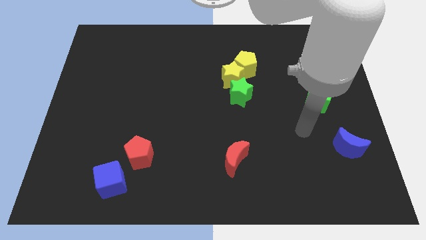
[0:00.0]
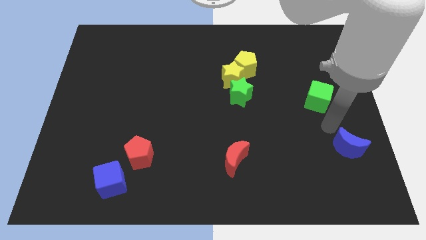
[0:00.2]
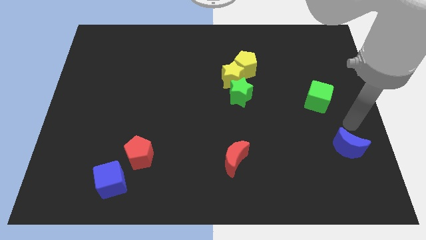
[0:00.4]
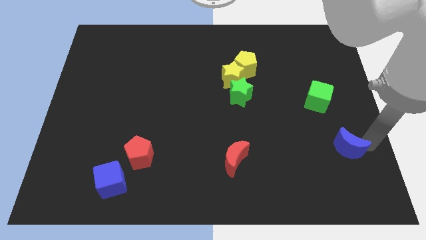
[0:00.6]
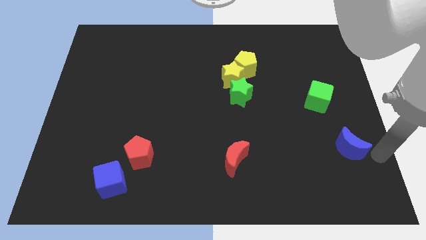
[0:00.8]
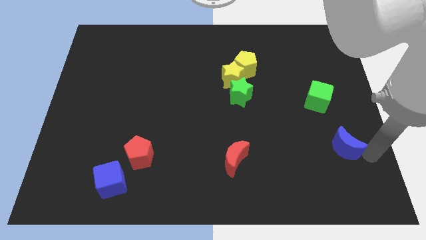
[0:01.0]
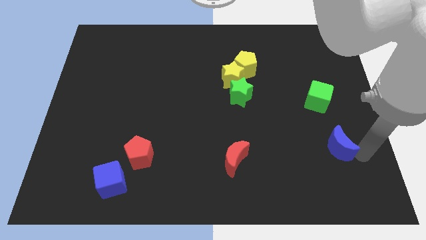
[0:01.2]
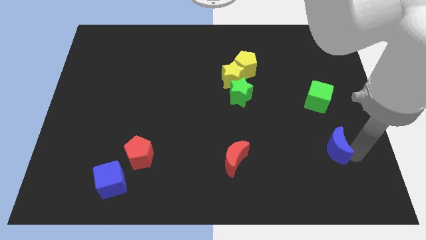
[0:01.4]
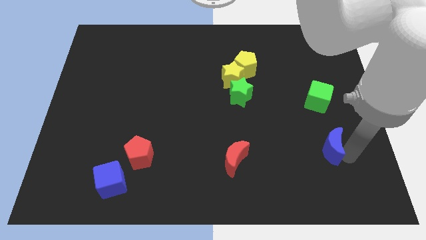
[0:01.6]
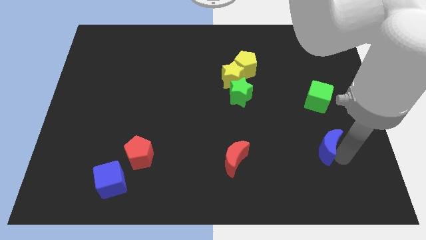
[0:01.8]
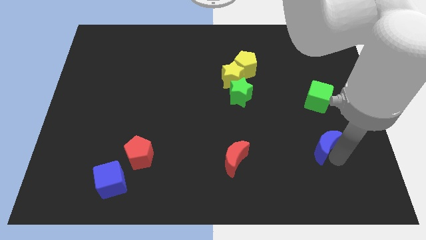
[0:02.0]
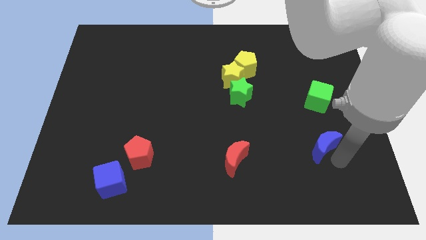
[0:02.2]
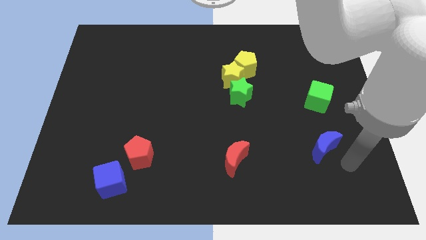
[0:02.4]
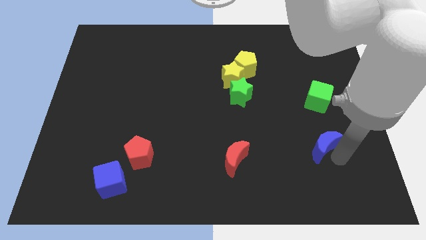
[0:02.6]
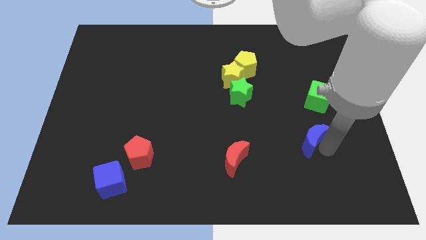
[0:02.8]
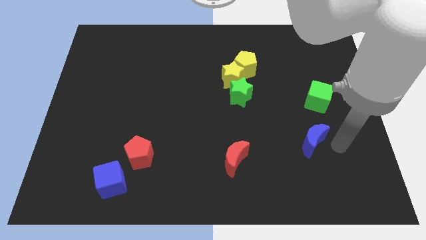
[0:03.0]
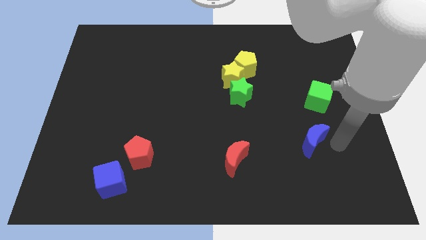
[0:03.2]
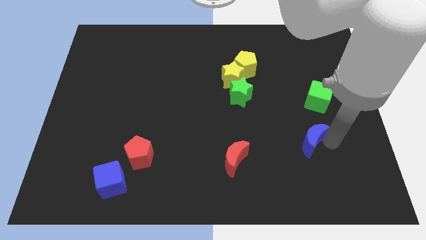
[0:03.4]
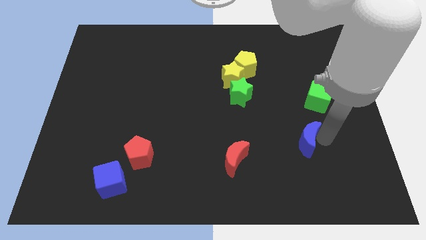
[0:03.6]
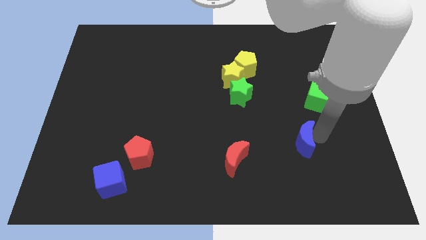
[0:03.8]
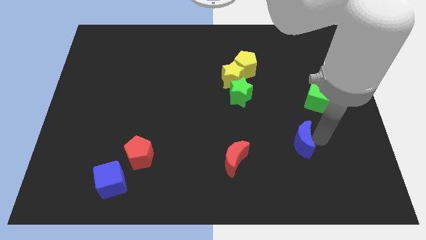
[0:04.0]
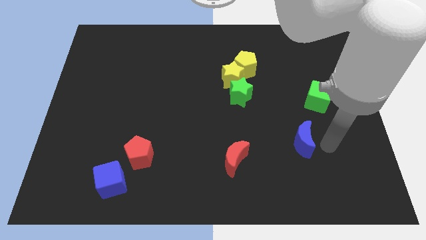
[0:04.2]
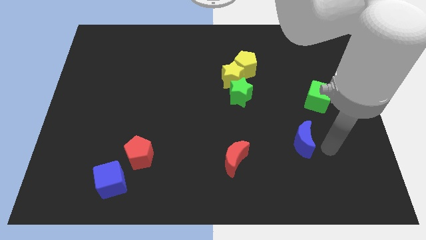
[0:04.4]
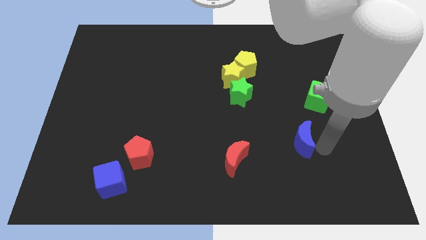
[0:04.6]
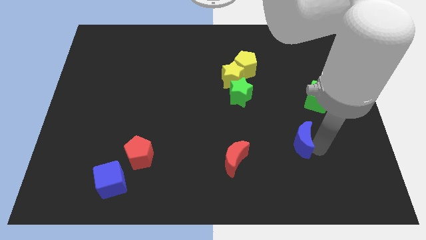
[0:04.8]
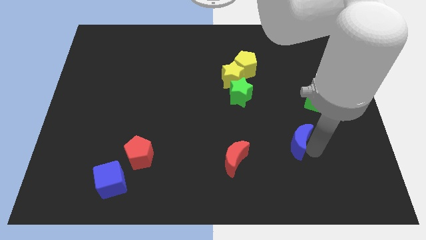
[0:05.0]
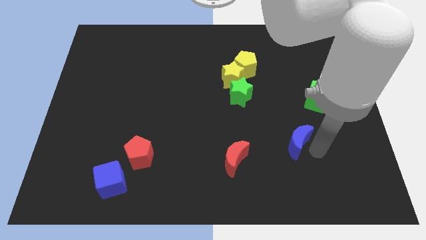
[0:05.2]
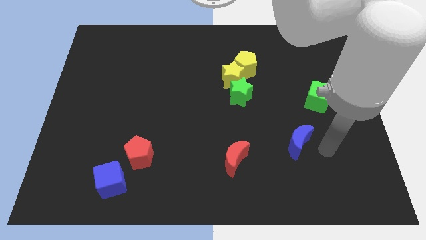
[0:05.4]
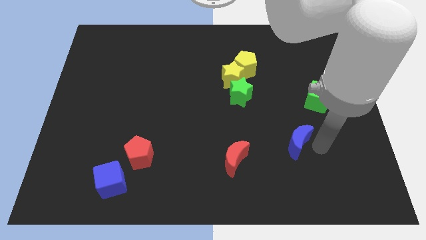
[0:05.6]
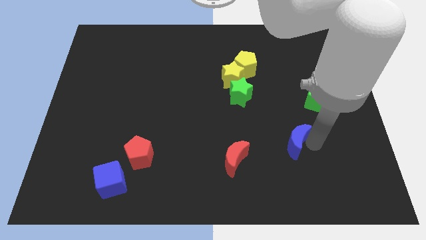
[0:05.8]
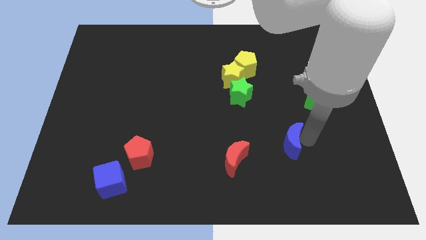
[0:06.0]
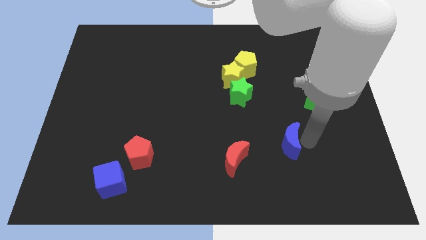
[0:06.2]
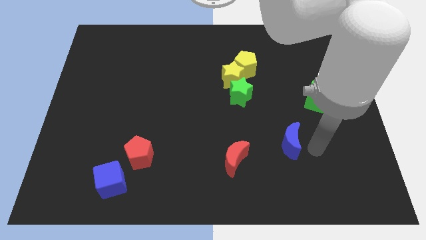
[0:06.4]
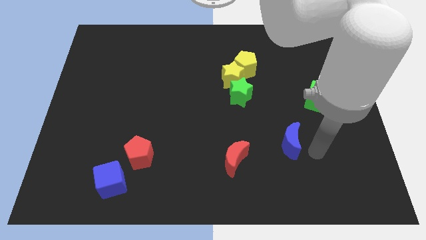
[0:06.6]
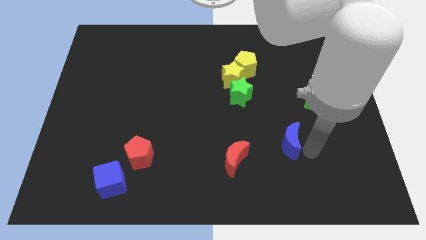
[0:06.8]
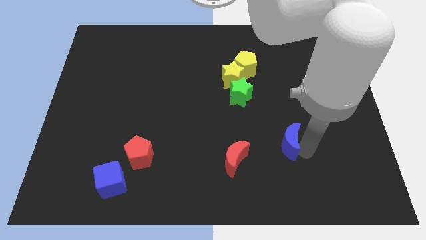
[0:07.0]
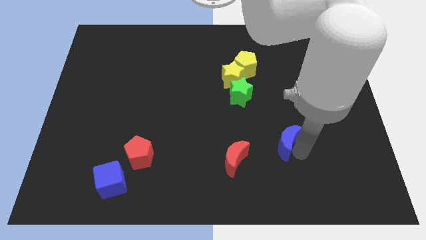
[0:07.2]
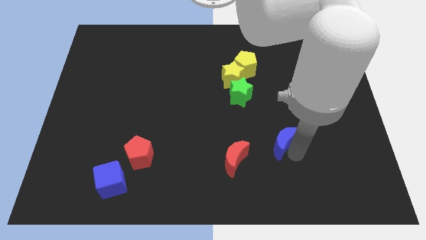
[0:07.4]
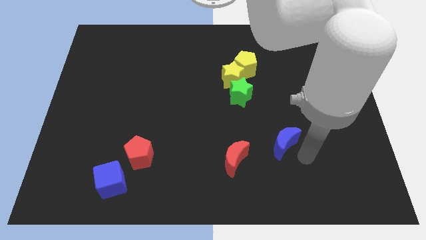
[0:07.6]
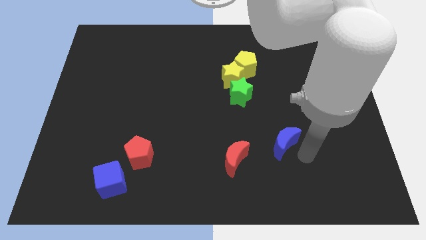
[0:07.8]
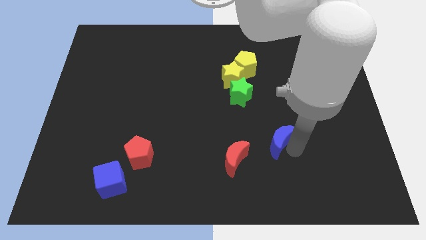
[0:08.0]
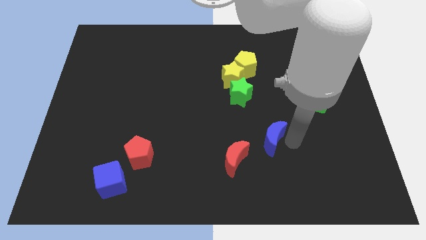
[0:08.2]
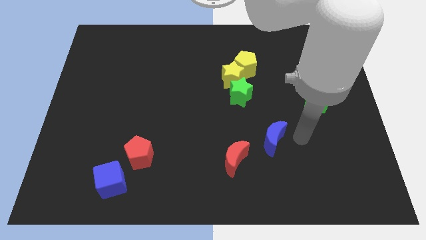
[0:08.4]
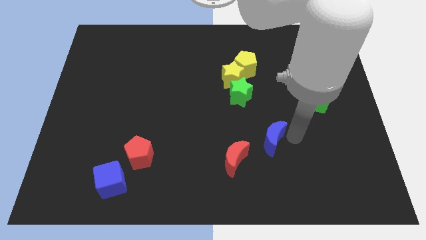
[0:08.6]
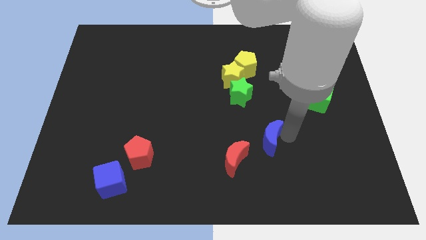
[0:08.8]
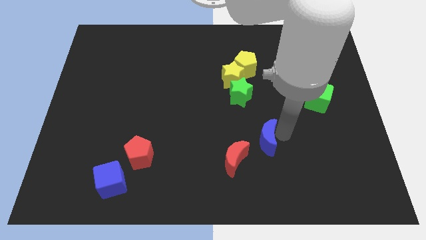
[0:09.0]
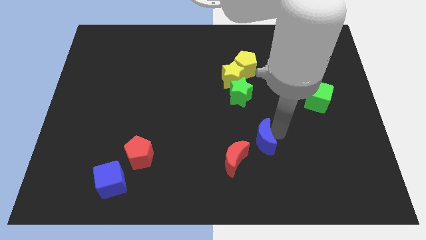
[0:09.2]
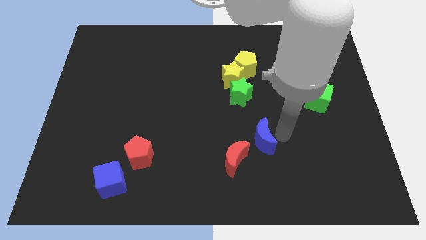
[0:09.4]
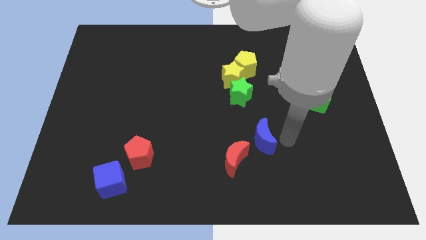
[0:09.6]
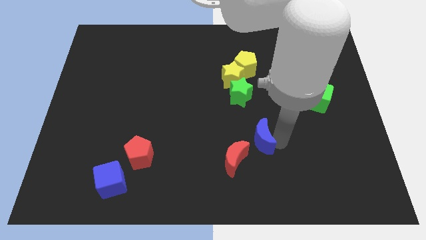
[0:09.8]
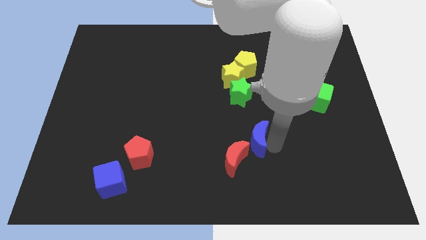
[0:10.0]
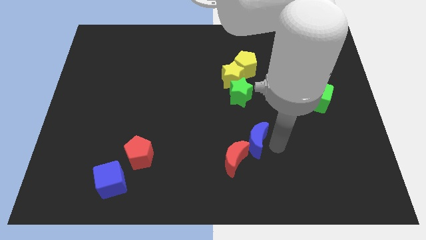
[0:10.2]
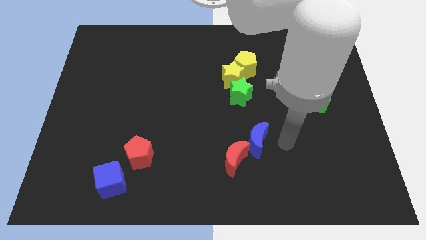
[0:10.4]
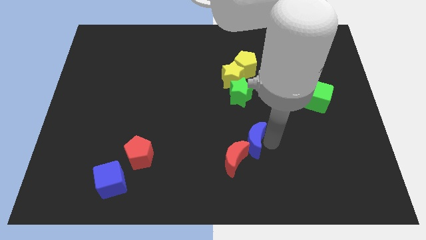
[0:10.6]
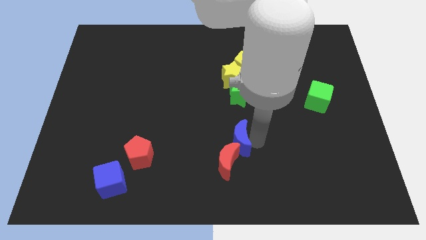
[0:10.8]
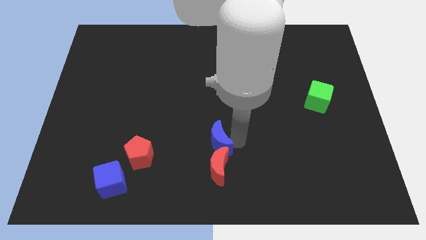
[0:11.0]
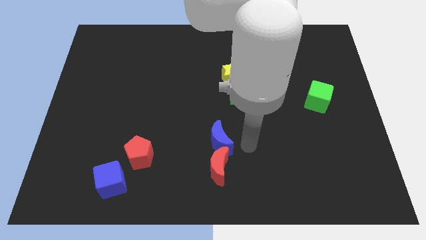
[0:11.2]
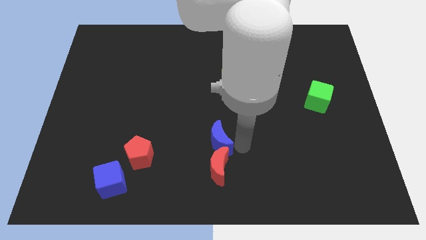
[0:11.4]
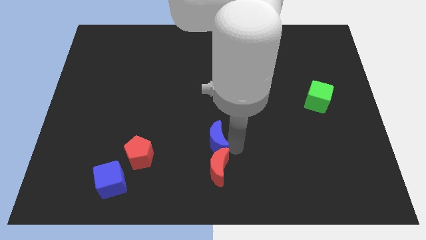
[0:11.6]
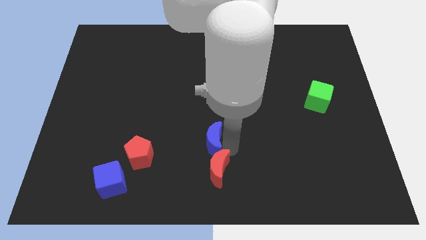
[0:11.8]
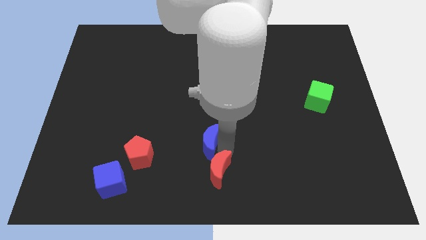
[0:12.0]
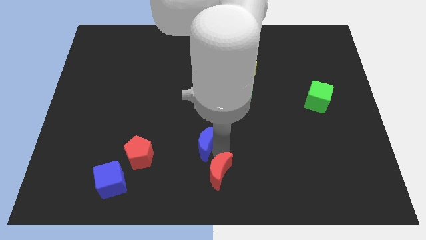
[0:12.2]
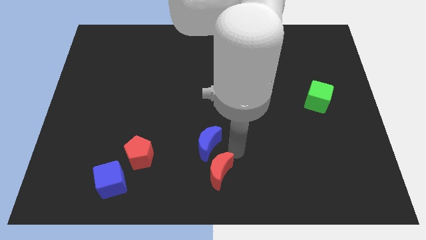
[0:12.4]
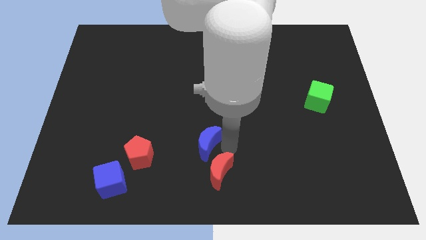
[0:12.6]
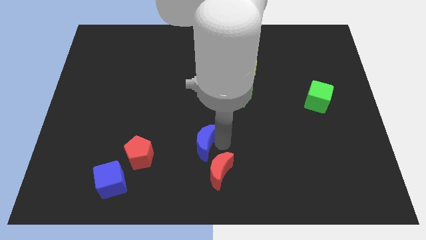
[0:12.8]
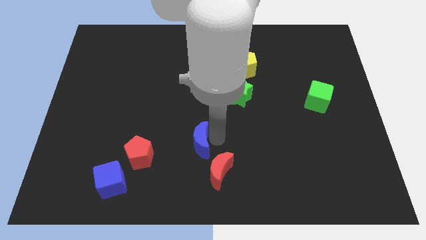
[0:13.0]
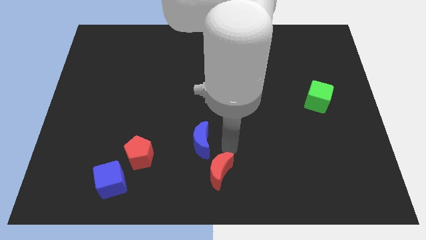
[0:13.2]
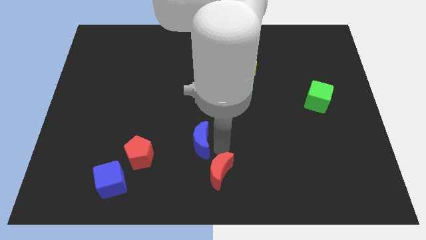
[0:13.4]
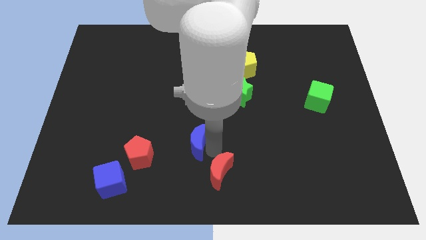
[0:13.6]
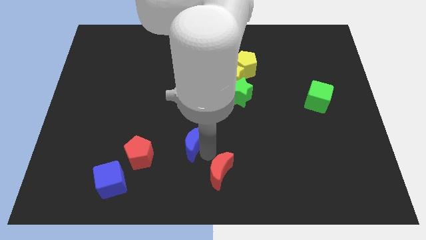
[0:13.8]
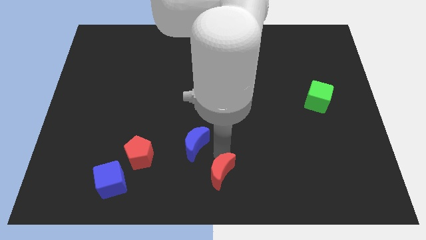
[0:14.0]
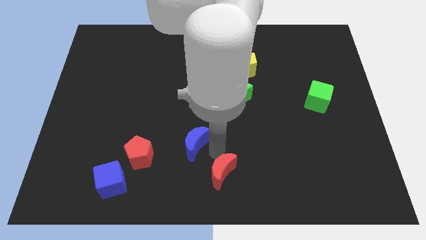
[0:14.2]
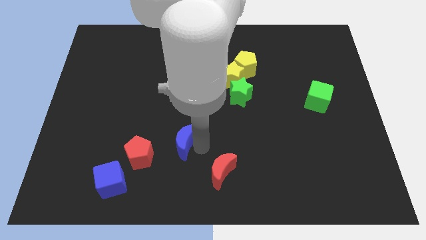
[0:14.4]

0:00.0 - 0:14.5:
move the blue moon diagonally up and to the right of the red pentagon
